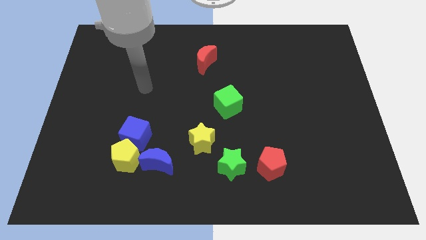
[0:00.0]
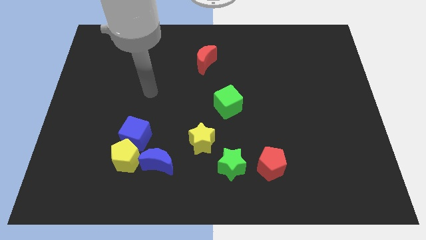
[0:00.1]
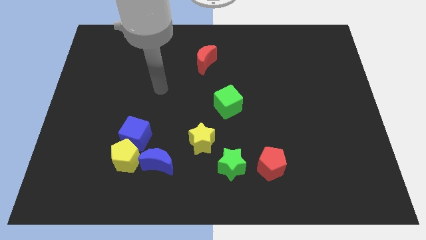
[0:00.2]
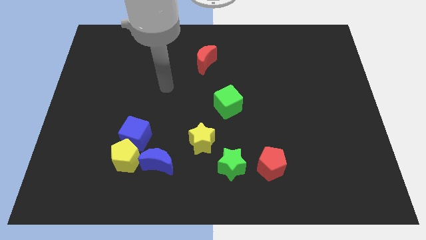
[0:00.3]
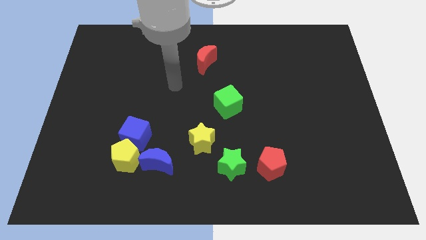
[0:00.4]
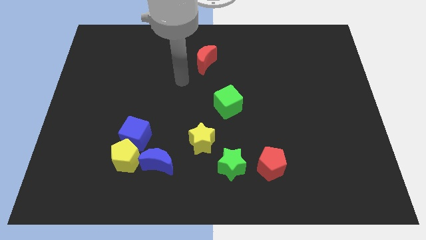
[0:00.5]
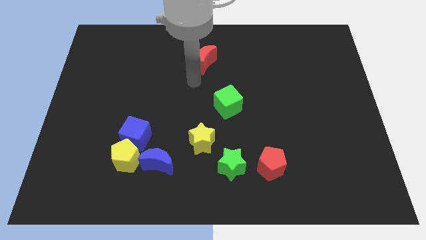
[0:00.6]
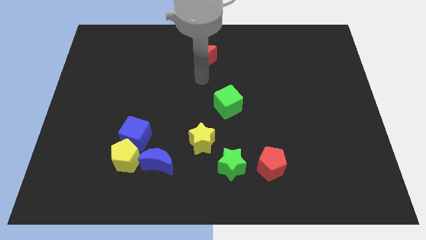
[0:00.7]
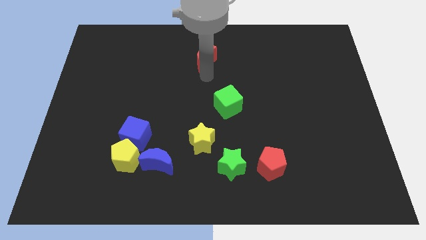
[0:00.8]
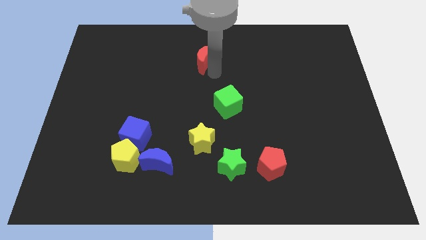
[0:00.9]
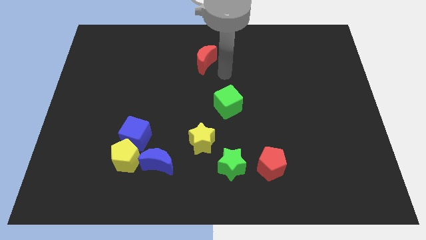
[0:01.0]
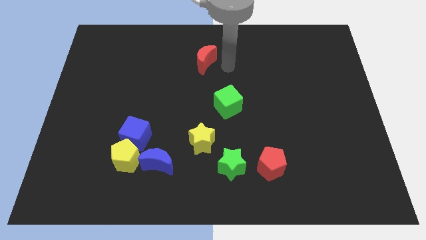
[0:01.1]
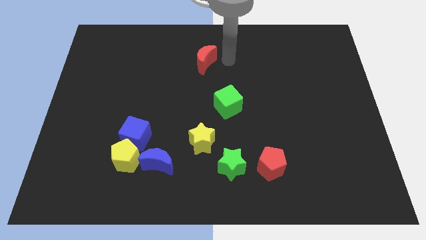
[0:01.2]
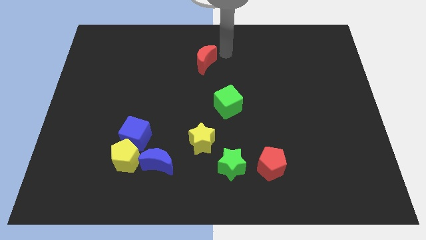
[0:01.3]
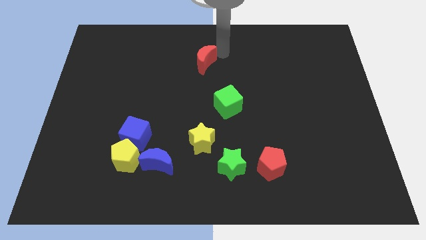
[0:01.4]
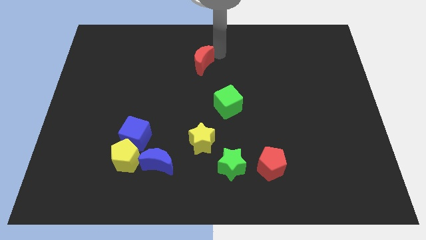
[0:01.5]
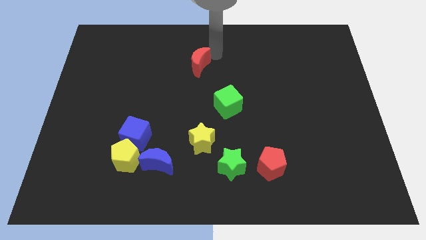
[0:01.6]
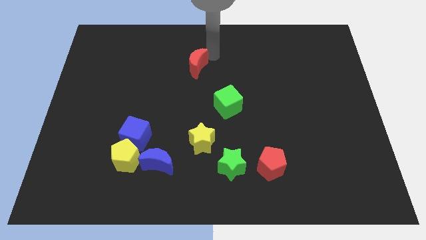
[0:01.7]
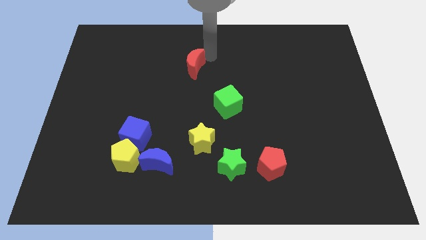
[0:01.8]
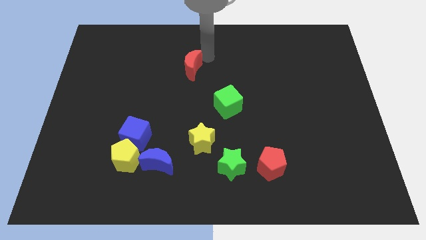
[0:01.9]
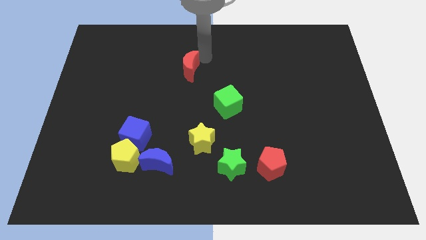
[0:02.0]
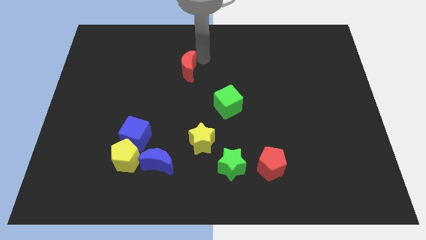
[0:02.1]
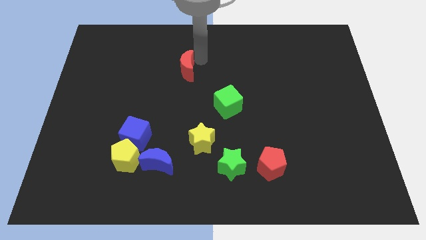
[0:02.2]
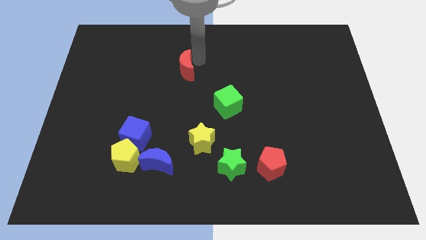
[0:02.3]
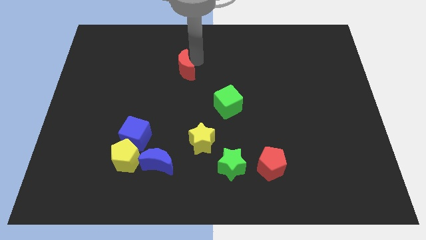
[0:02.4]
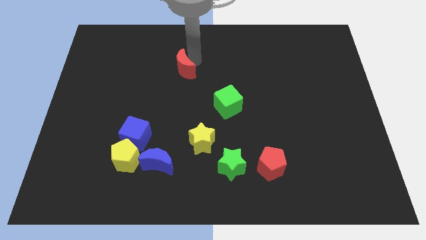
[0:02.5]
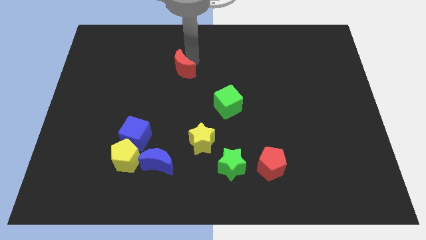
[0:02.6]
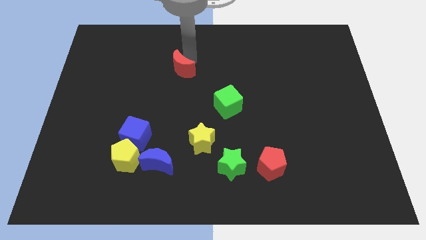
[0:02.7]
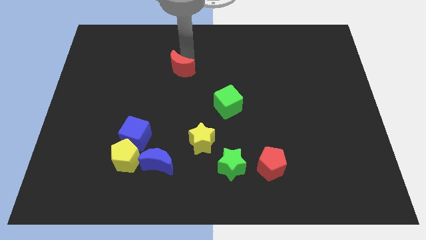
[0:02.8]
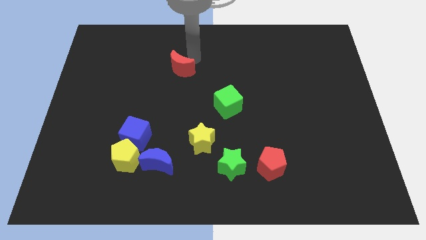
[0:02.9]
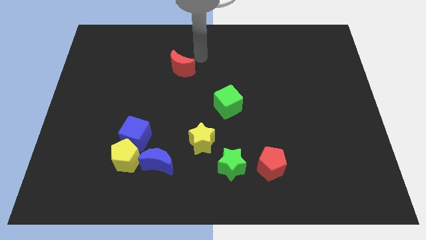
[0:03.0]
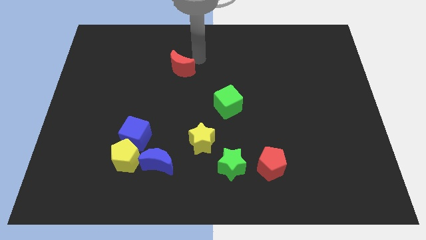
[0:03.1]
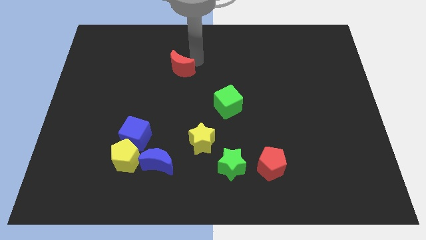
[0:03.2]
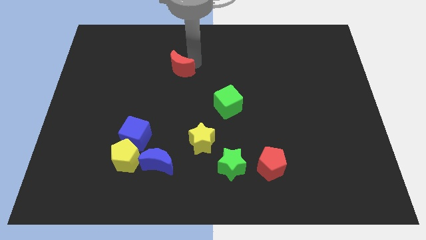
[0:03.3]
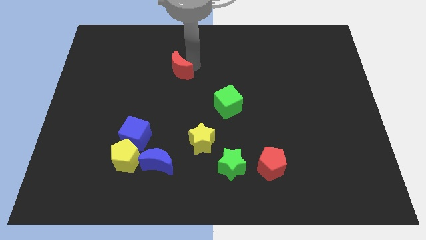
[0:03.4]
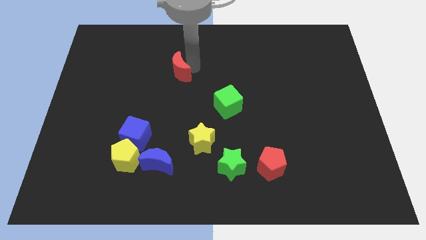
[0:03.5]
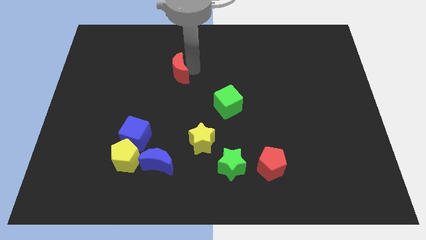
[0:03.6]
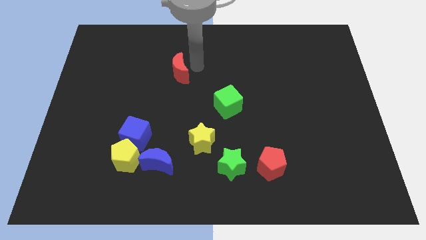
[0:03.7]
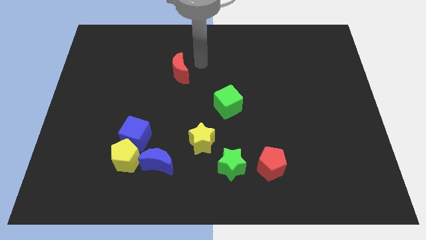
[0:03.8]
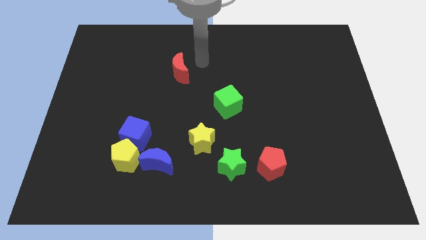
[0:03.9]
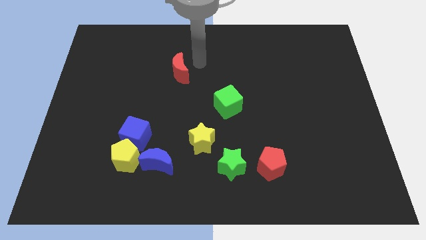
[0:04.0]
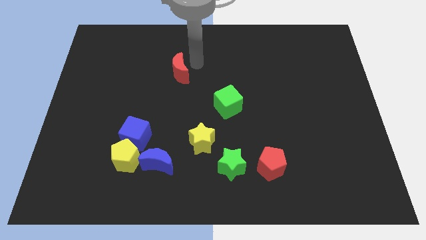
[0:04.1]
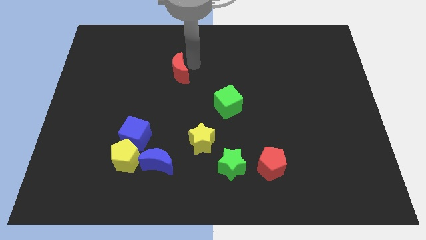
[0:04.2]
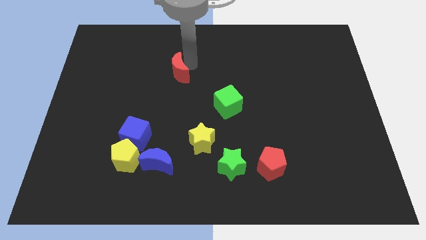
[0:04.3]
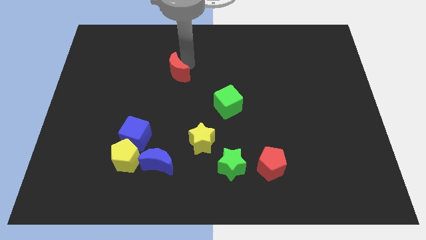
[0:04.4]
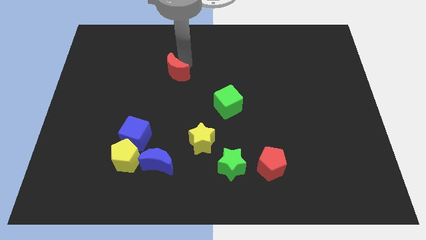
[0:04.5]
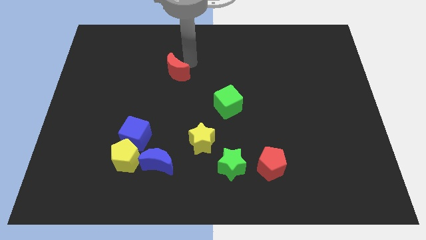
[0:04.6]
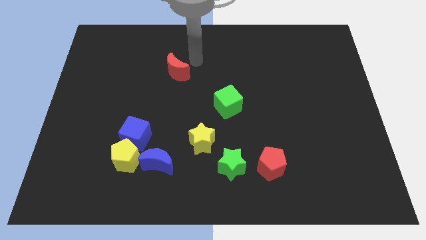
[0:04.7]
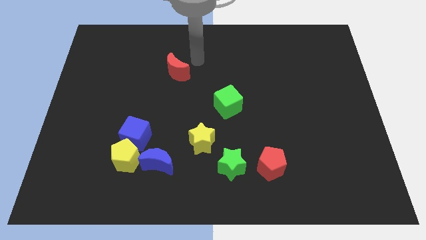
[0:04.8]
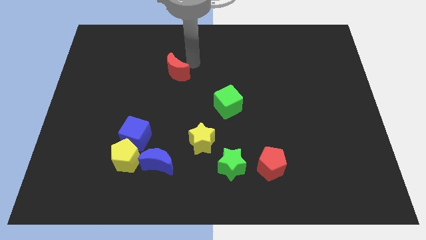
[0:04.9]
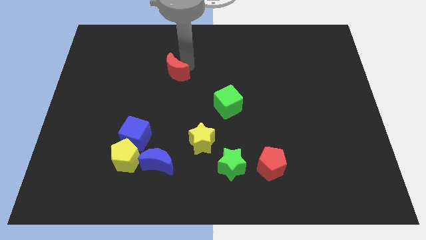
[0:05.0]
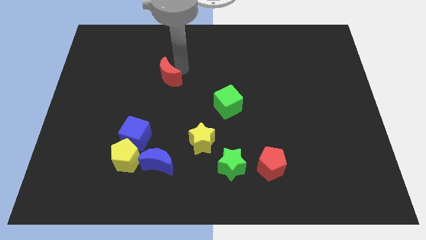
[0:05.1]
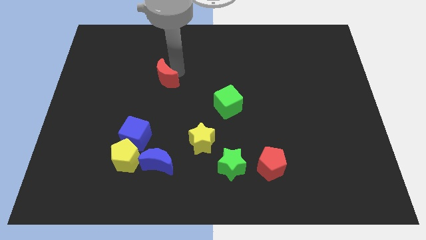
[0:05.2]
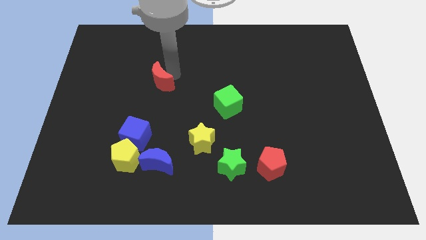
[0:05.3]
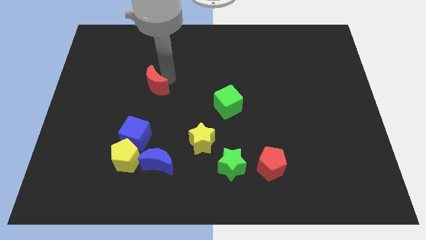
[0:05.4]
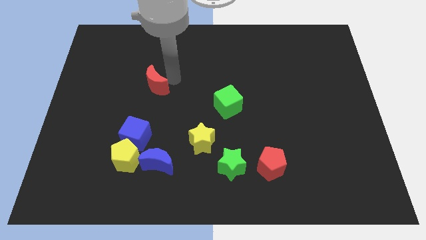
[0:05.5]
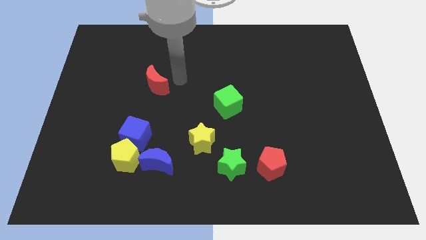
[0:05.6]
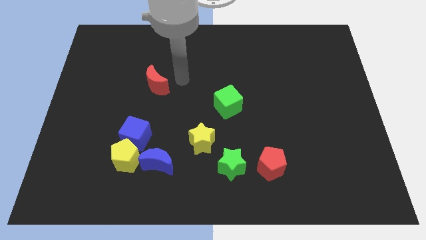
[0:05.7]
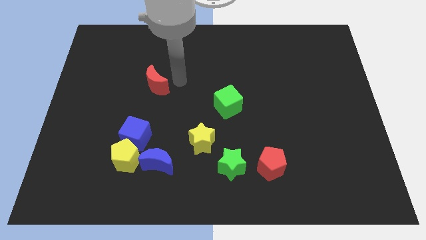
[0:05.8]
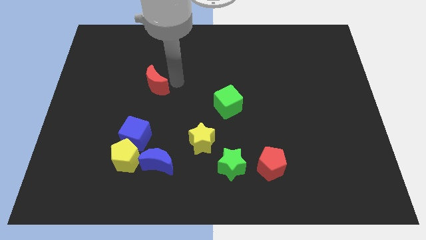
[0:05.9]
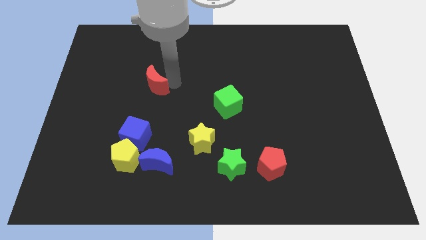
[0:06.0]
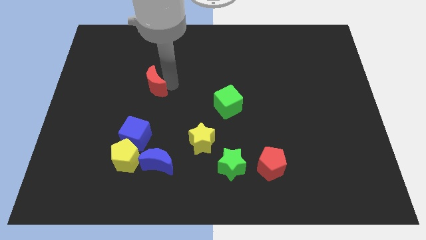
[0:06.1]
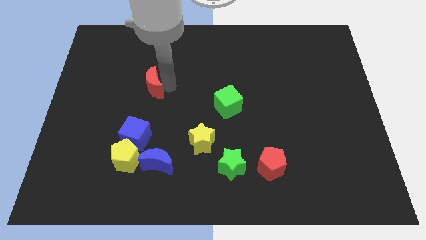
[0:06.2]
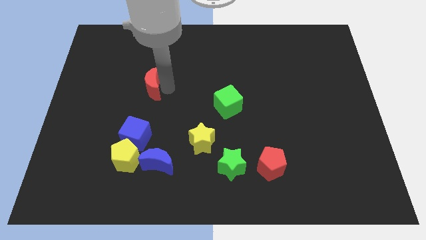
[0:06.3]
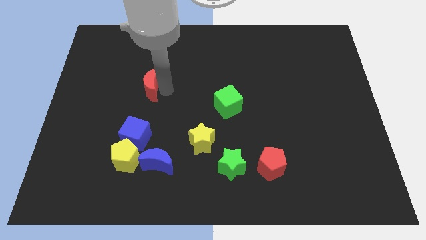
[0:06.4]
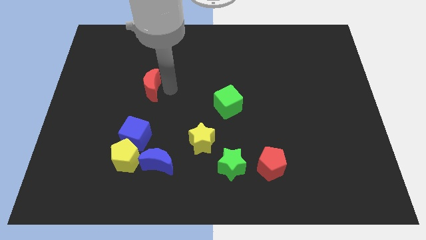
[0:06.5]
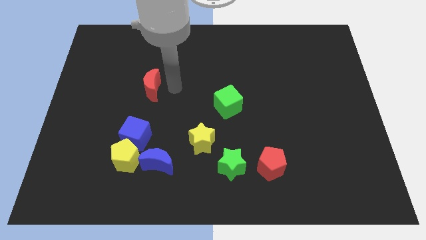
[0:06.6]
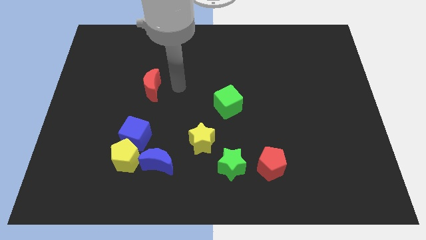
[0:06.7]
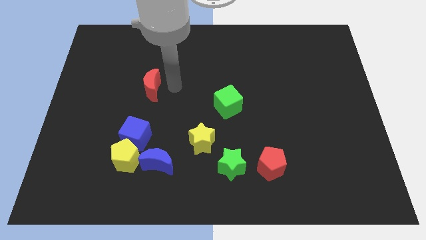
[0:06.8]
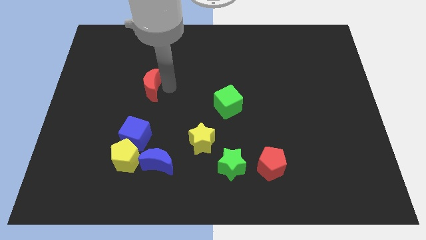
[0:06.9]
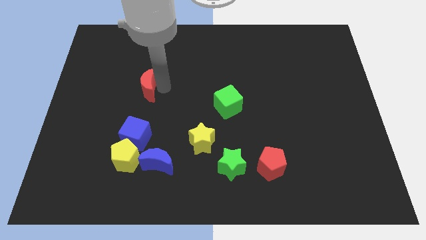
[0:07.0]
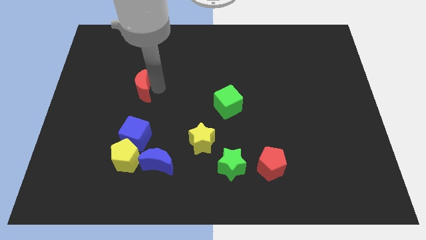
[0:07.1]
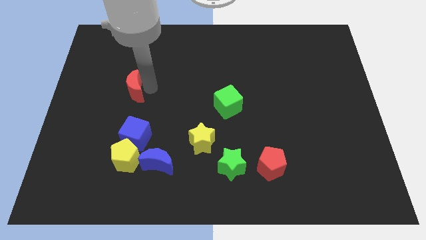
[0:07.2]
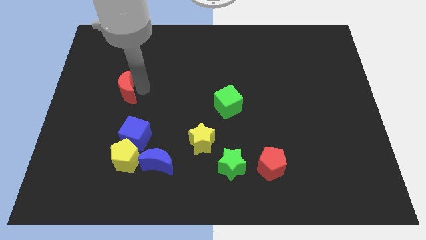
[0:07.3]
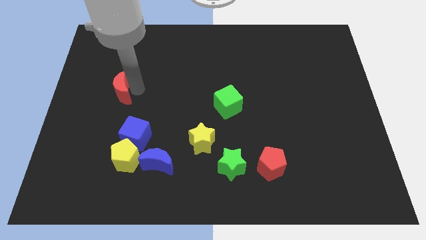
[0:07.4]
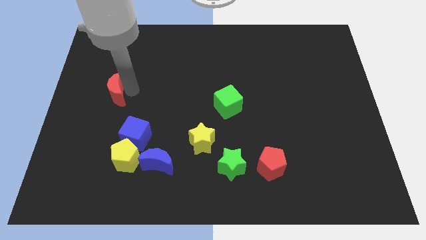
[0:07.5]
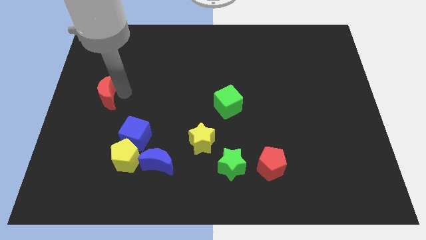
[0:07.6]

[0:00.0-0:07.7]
push the red moon to the center left
